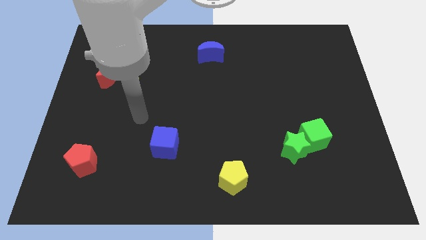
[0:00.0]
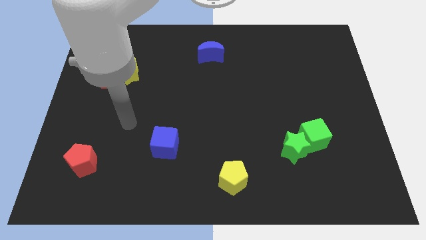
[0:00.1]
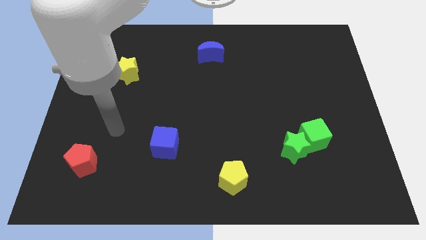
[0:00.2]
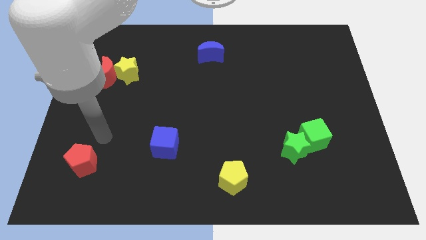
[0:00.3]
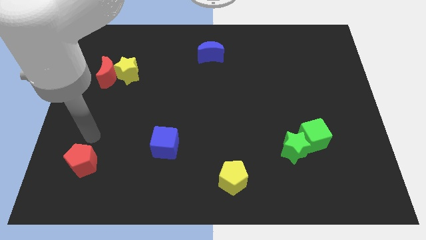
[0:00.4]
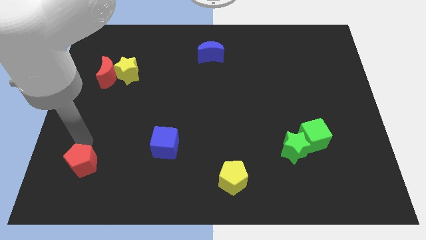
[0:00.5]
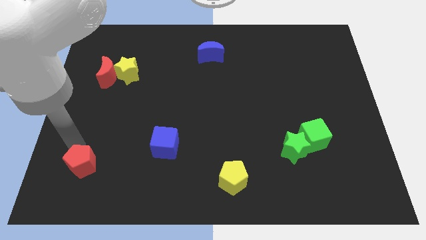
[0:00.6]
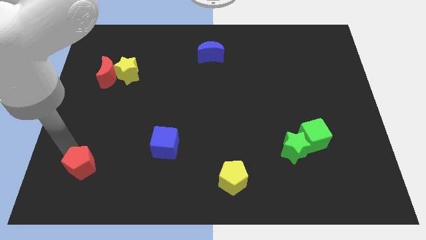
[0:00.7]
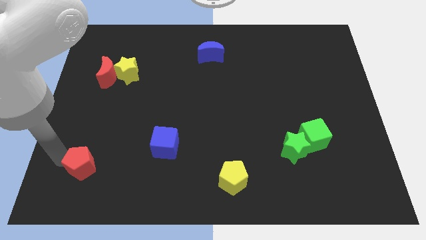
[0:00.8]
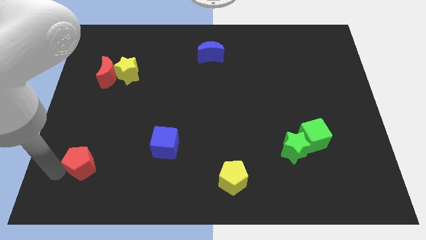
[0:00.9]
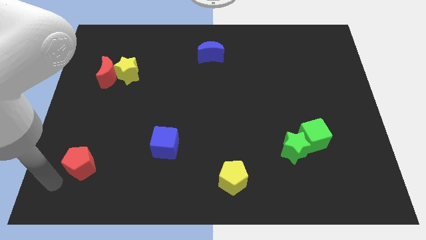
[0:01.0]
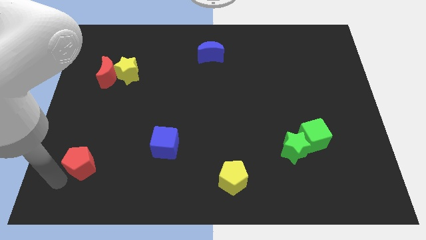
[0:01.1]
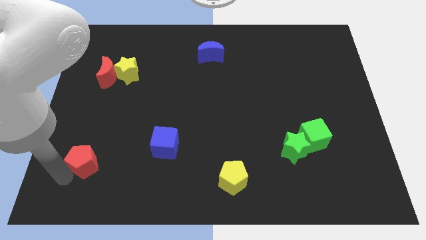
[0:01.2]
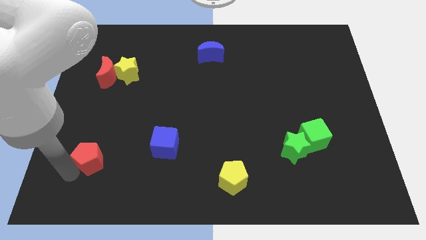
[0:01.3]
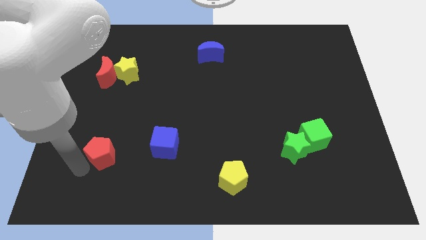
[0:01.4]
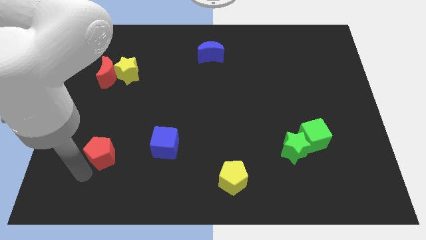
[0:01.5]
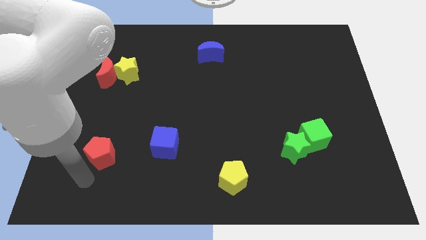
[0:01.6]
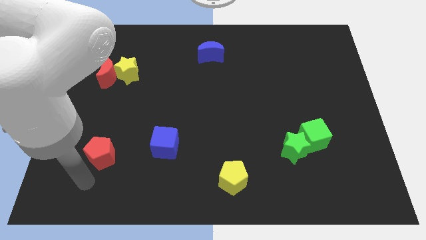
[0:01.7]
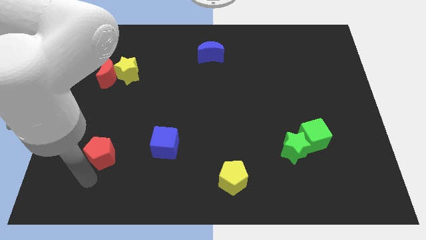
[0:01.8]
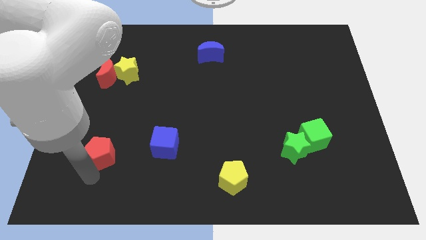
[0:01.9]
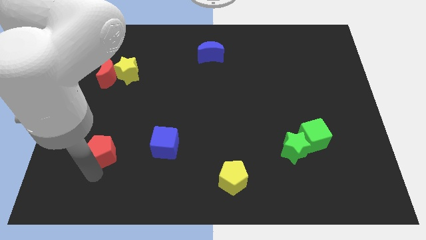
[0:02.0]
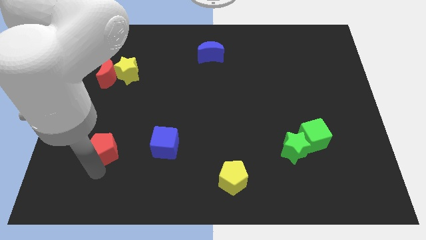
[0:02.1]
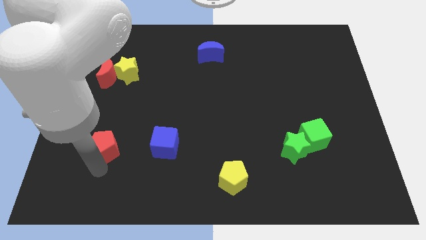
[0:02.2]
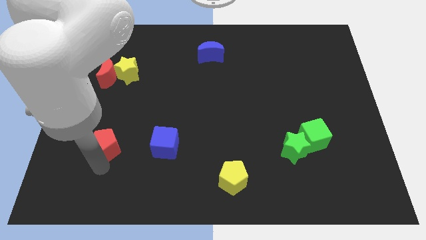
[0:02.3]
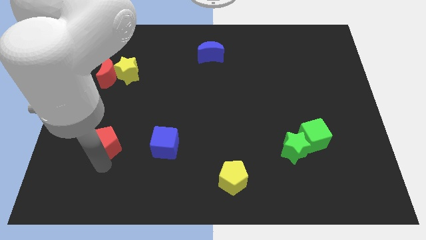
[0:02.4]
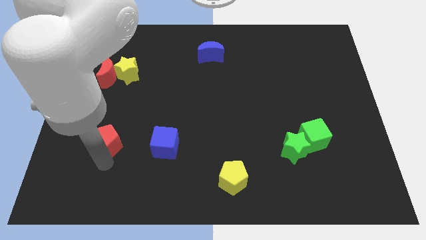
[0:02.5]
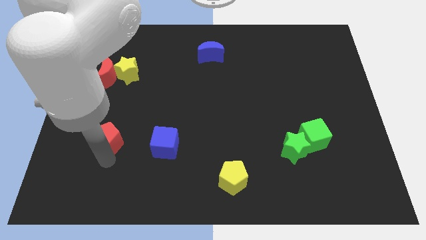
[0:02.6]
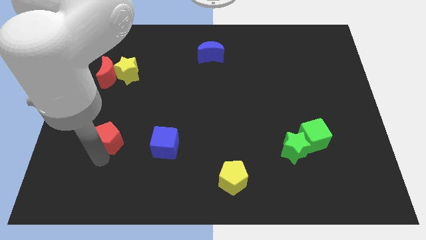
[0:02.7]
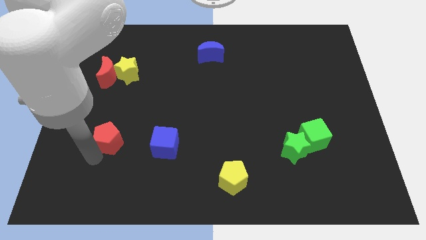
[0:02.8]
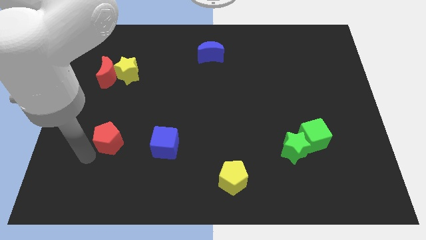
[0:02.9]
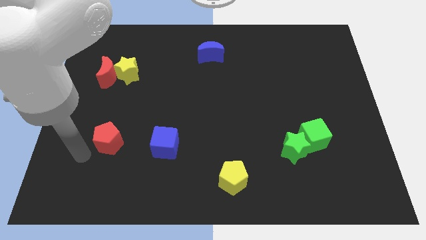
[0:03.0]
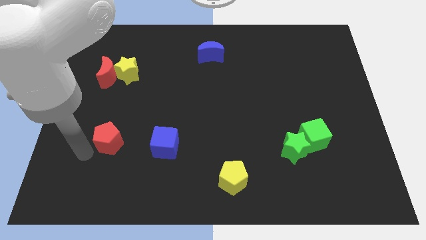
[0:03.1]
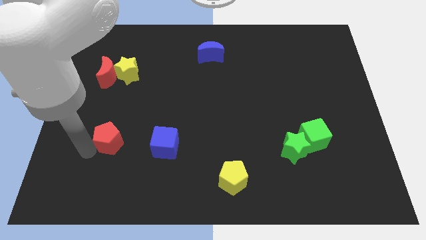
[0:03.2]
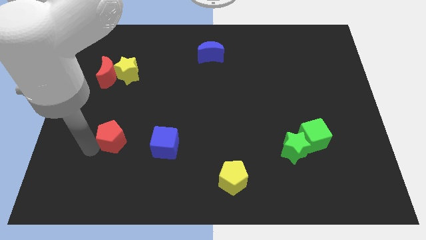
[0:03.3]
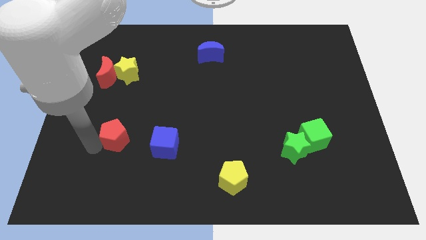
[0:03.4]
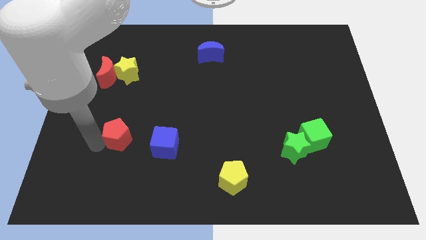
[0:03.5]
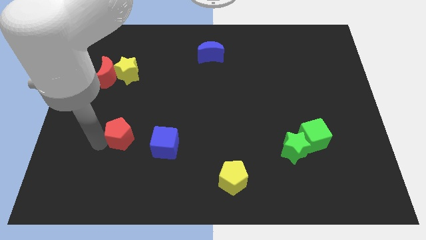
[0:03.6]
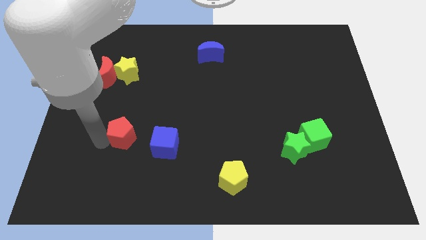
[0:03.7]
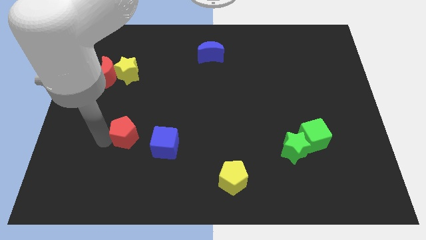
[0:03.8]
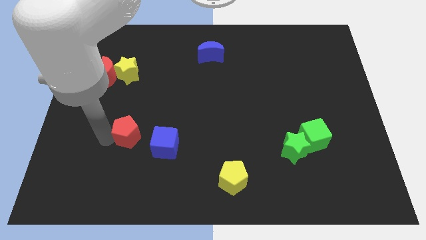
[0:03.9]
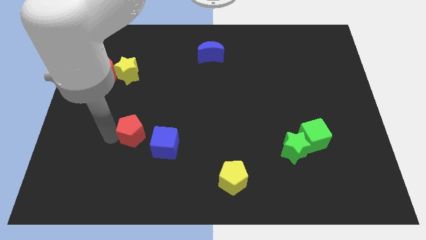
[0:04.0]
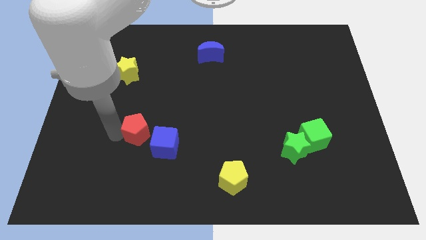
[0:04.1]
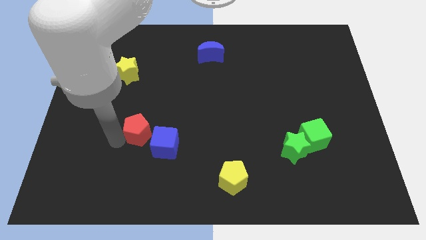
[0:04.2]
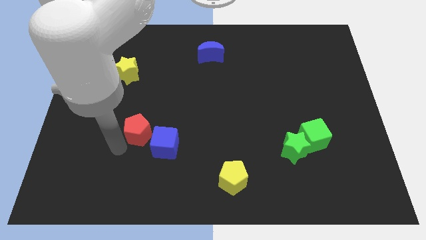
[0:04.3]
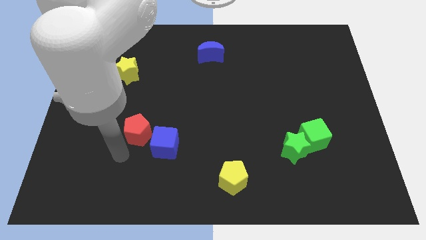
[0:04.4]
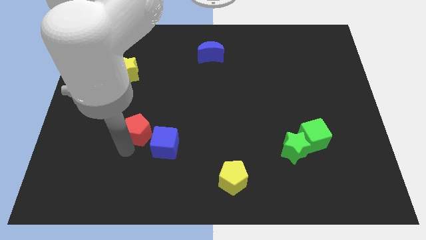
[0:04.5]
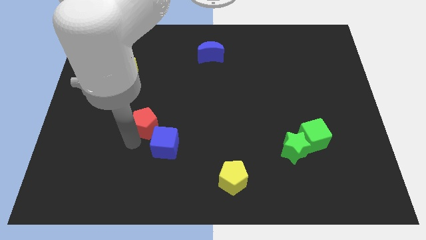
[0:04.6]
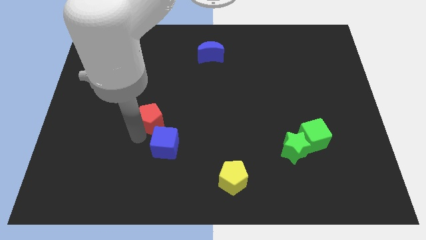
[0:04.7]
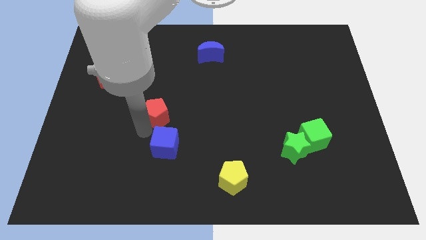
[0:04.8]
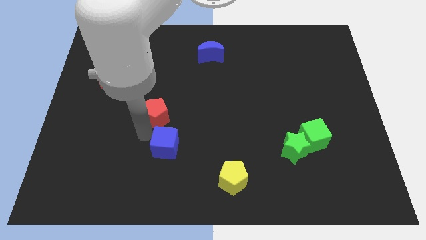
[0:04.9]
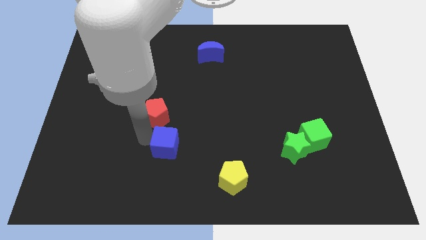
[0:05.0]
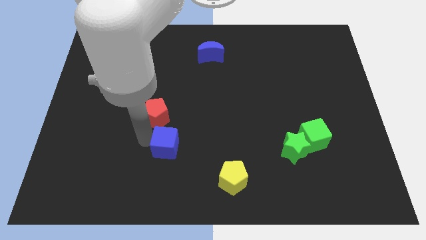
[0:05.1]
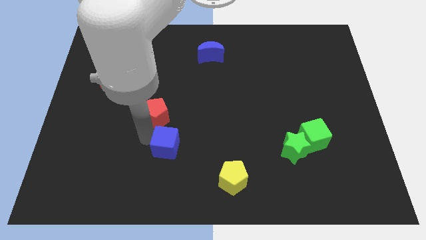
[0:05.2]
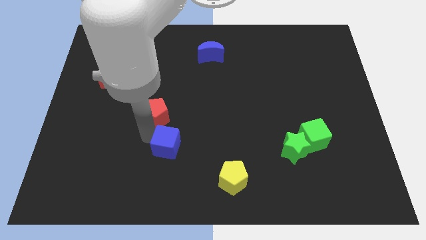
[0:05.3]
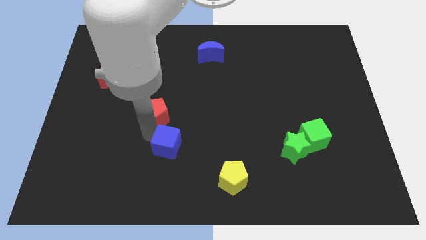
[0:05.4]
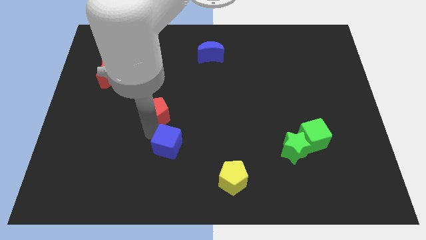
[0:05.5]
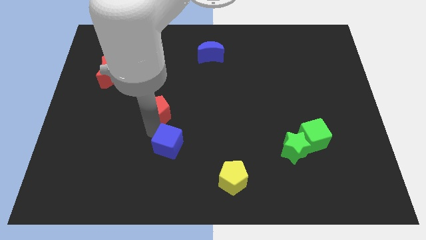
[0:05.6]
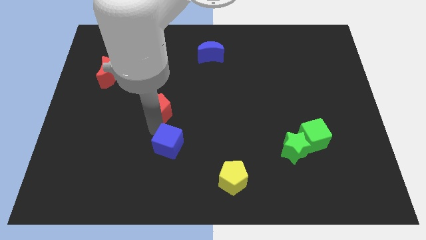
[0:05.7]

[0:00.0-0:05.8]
push the red pentagon up and to the right

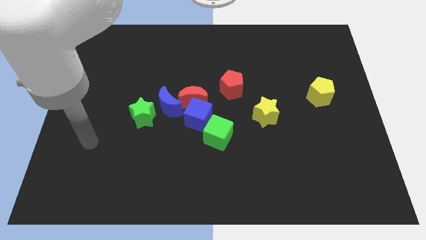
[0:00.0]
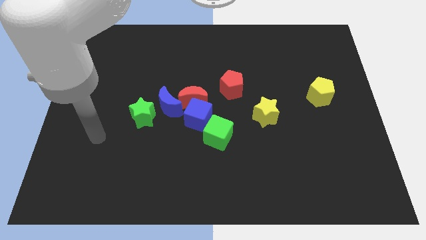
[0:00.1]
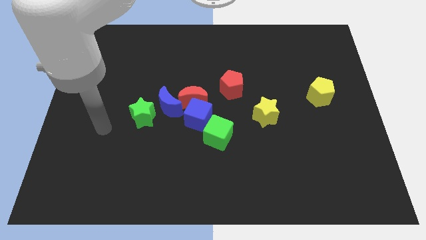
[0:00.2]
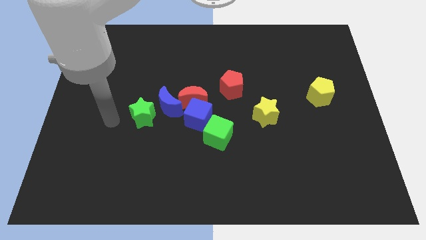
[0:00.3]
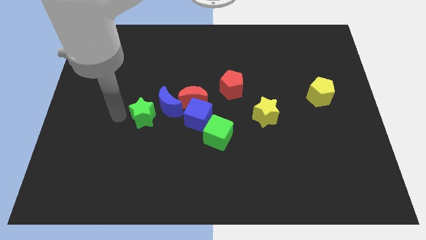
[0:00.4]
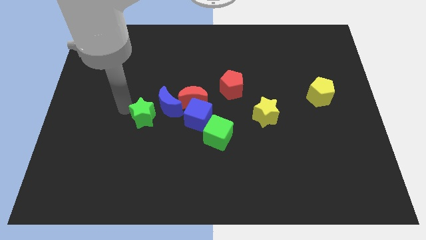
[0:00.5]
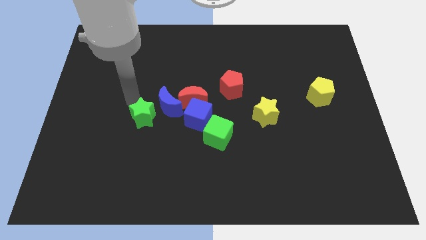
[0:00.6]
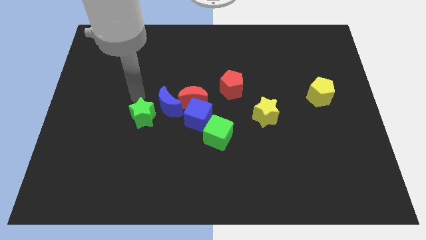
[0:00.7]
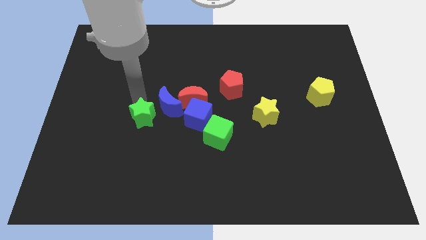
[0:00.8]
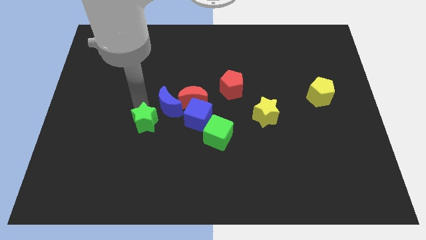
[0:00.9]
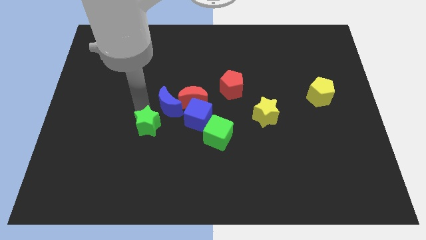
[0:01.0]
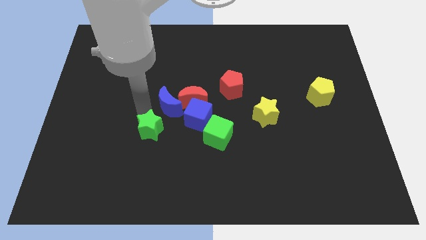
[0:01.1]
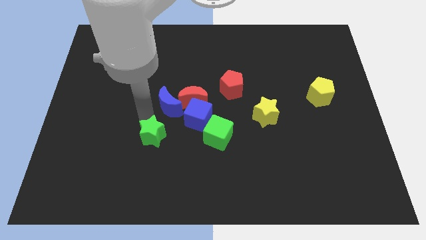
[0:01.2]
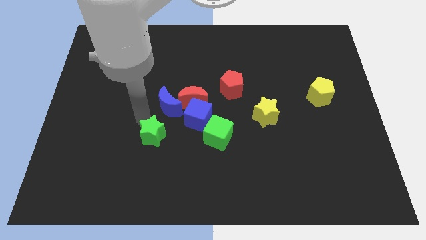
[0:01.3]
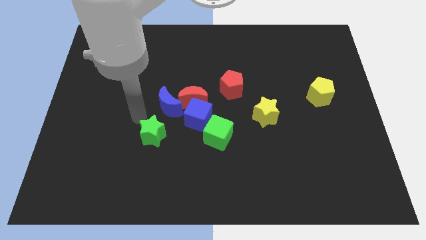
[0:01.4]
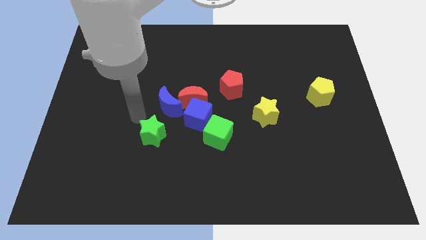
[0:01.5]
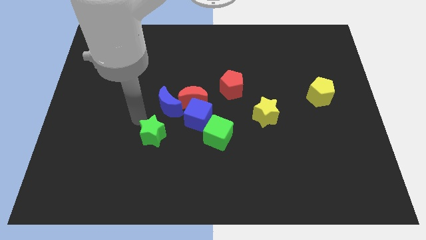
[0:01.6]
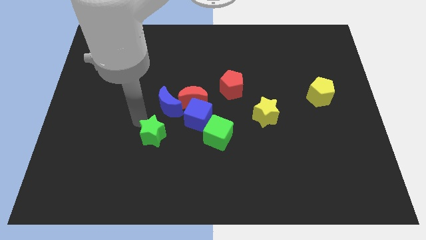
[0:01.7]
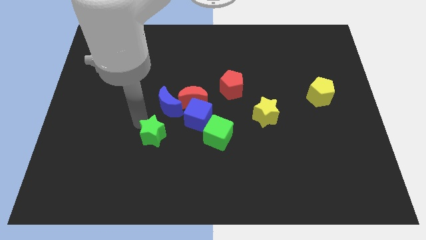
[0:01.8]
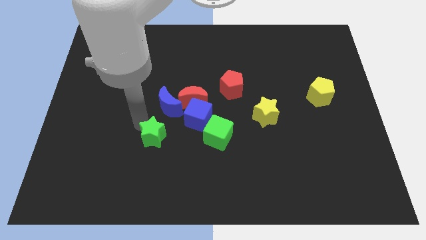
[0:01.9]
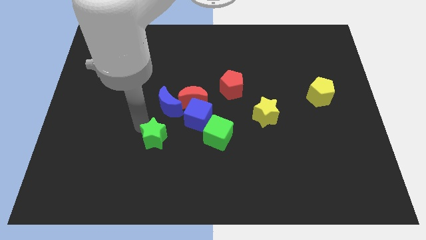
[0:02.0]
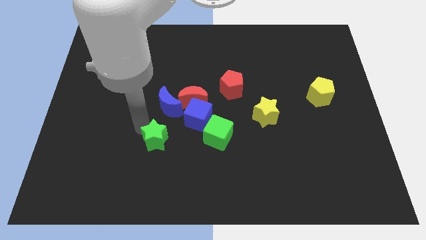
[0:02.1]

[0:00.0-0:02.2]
slightly move the green star down and to the right diagonally
